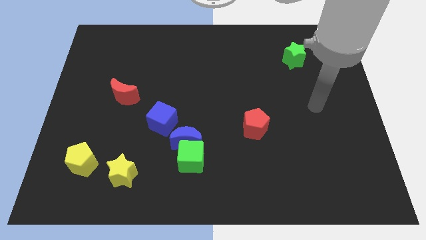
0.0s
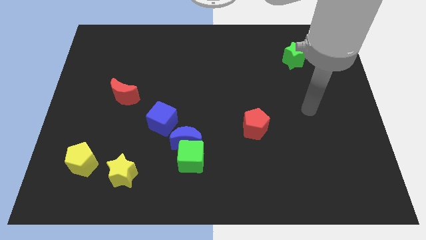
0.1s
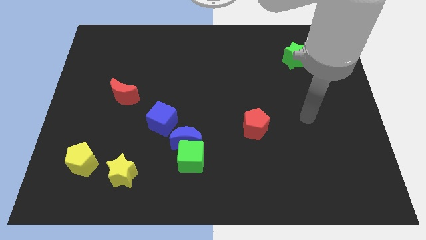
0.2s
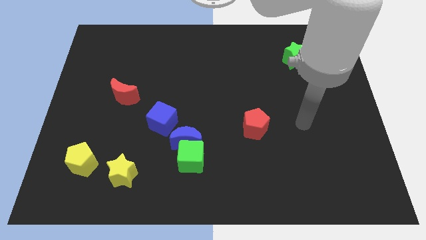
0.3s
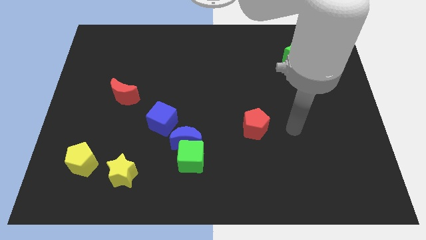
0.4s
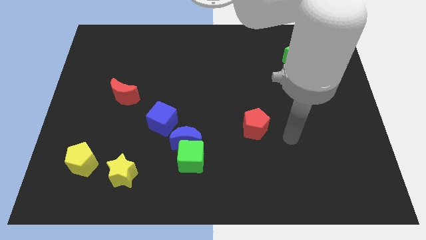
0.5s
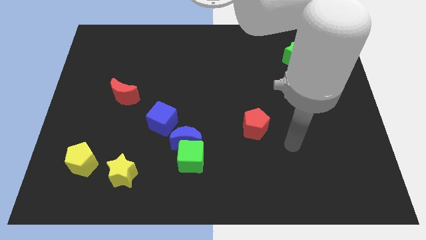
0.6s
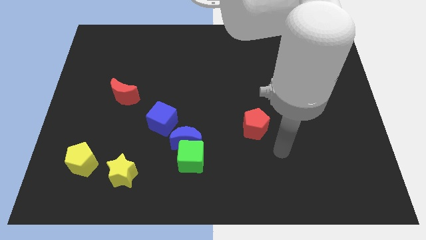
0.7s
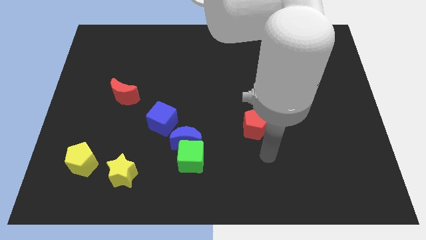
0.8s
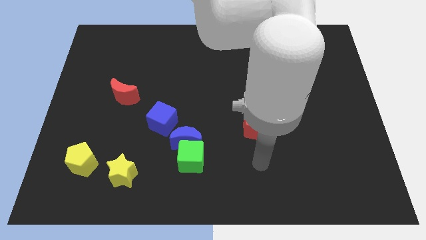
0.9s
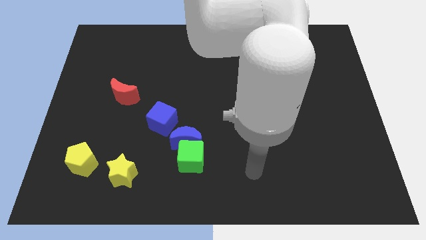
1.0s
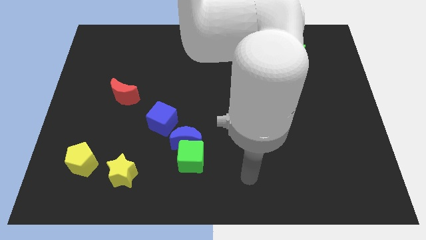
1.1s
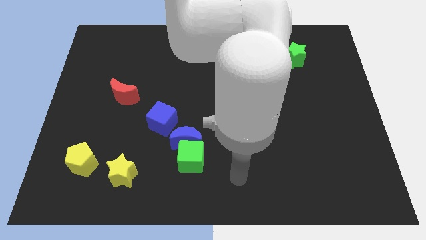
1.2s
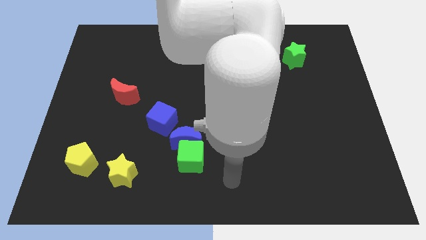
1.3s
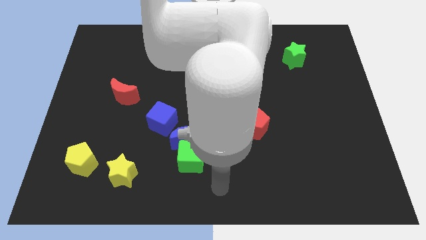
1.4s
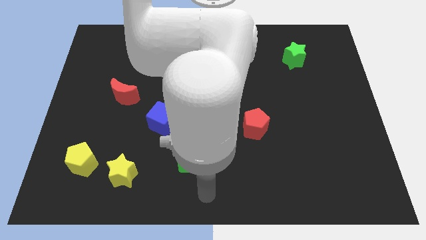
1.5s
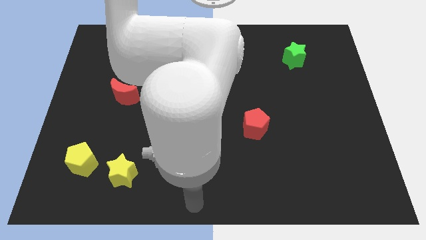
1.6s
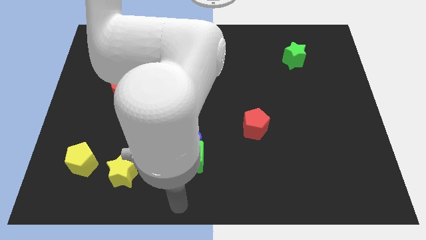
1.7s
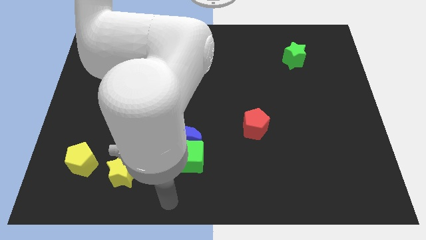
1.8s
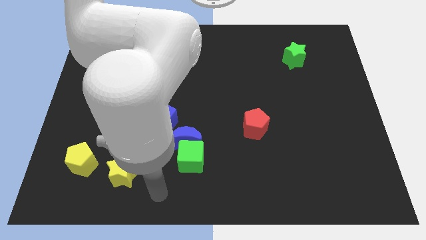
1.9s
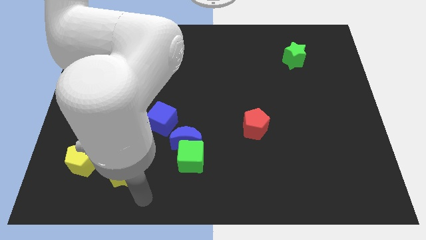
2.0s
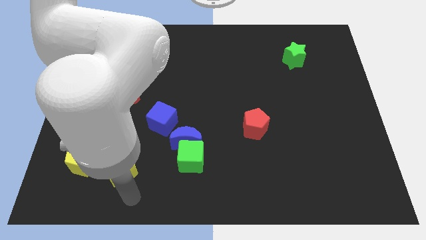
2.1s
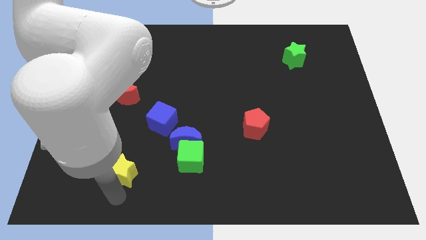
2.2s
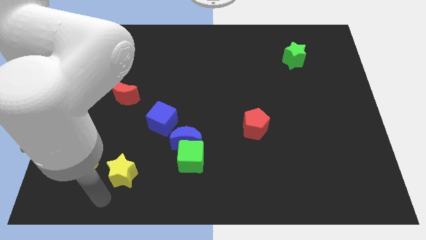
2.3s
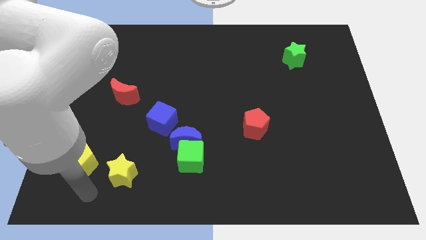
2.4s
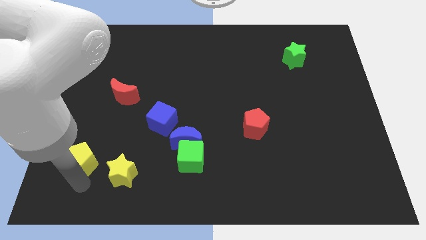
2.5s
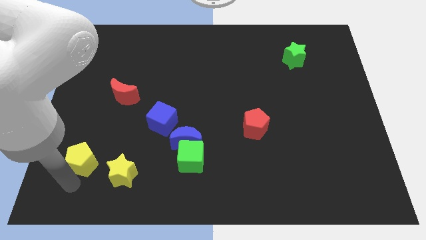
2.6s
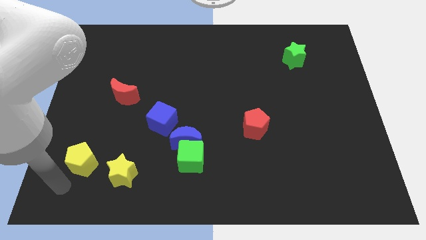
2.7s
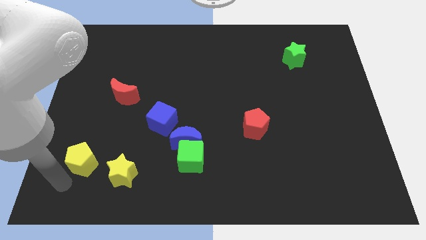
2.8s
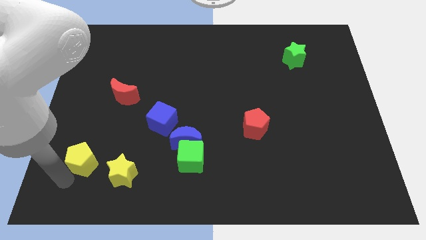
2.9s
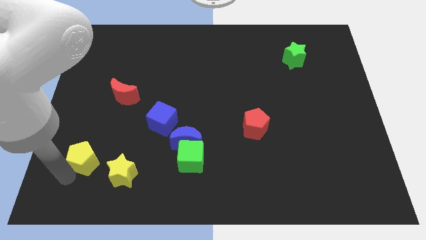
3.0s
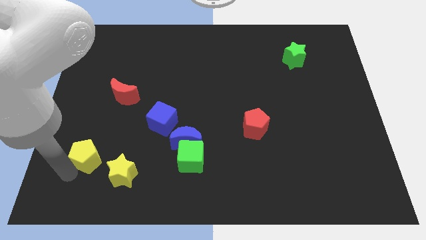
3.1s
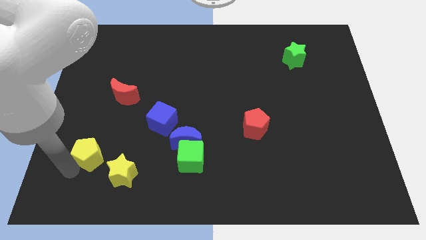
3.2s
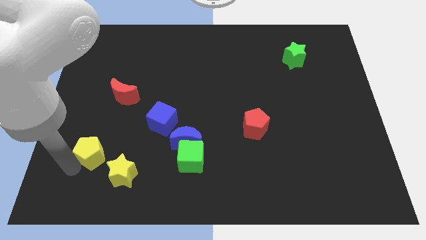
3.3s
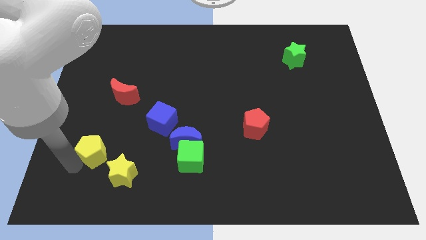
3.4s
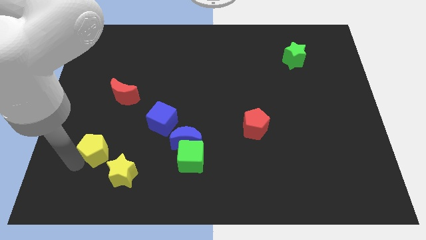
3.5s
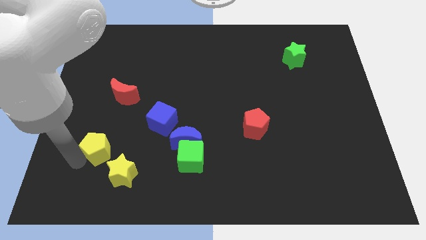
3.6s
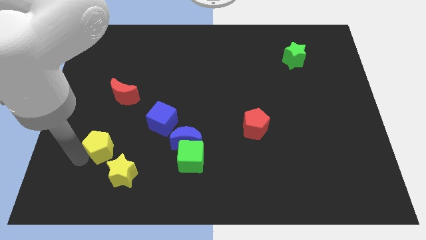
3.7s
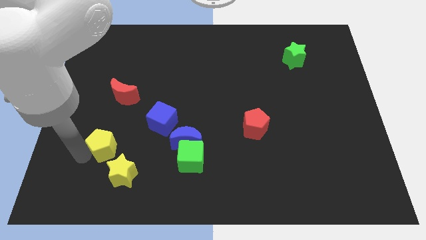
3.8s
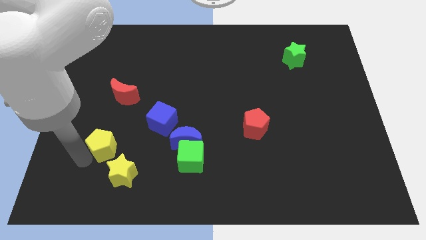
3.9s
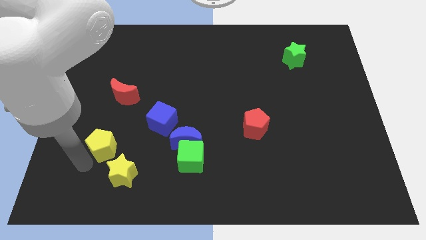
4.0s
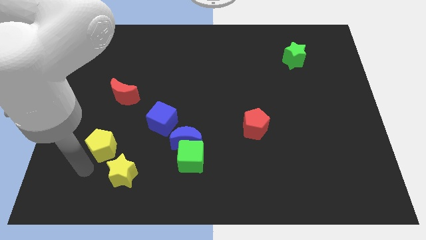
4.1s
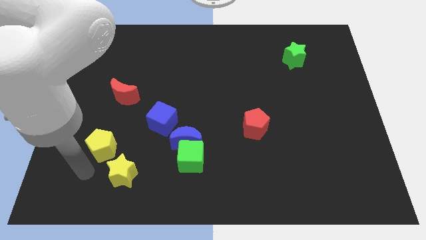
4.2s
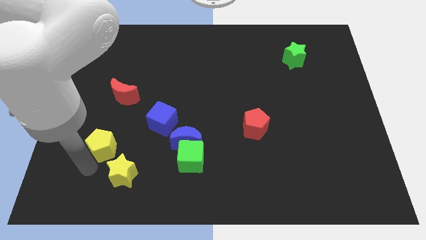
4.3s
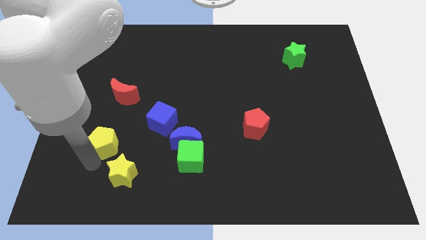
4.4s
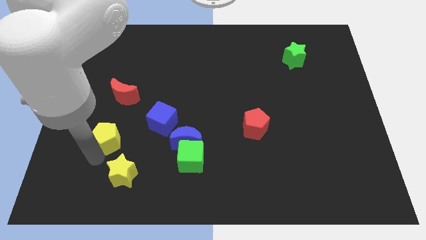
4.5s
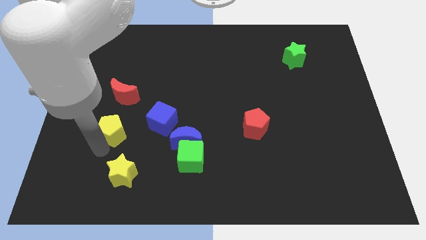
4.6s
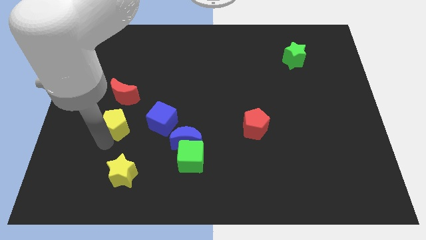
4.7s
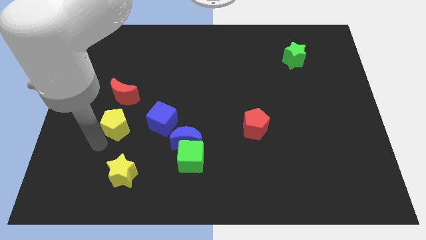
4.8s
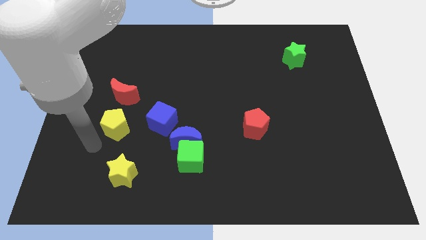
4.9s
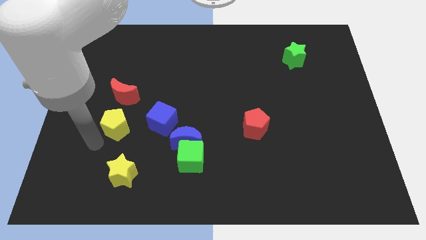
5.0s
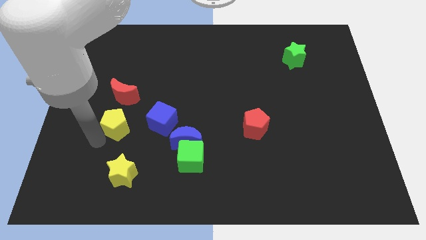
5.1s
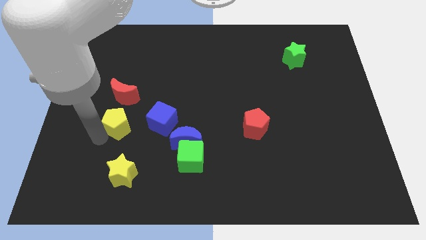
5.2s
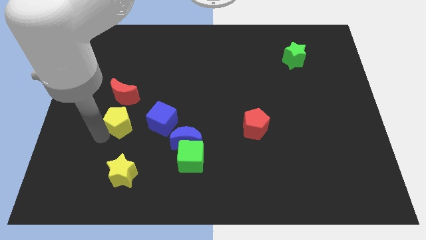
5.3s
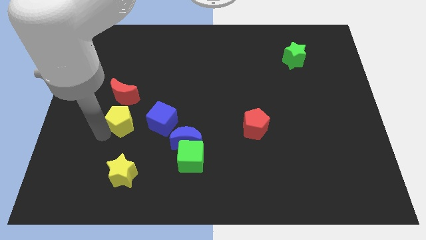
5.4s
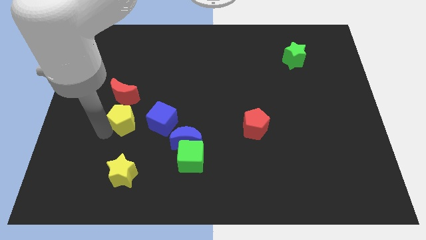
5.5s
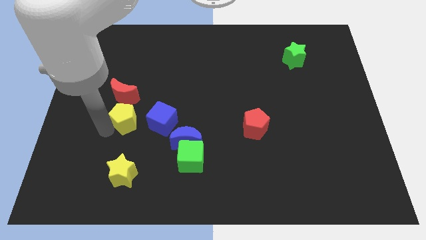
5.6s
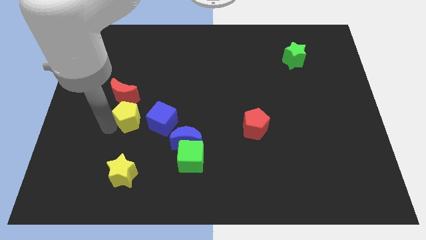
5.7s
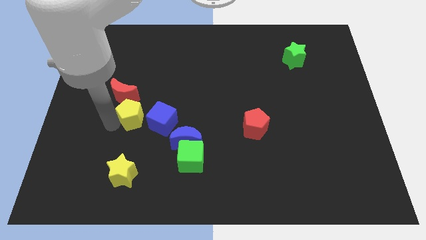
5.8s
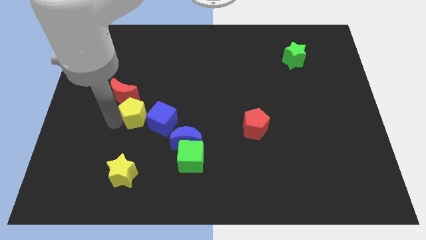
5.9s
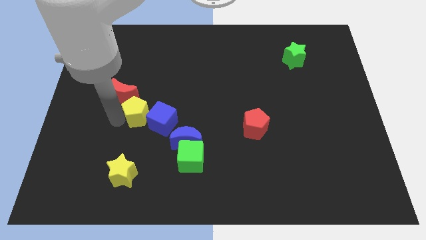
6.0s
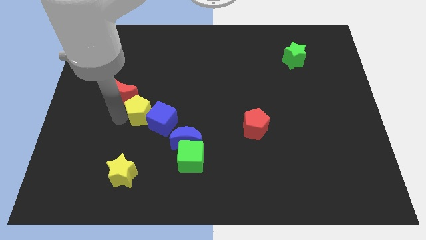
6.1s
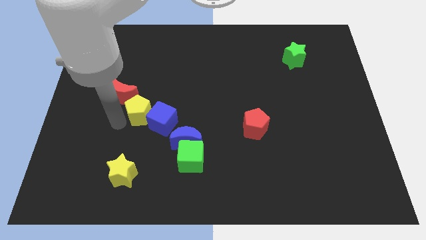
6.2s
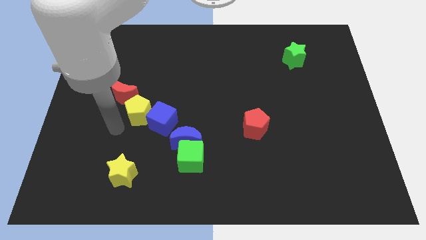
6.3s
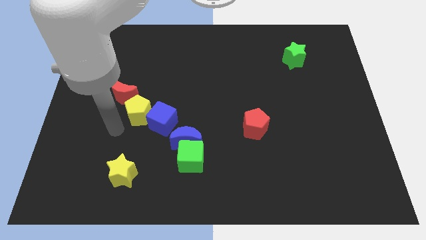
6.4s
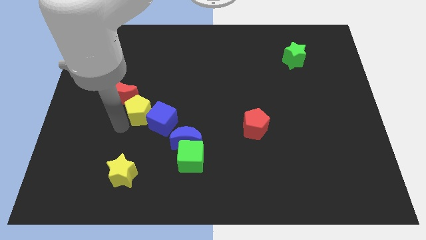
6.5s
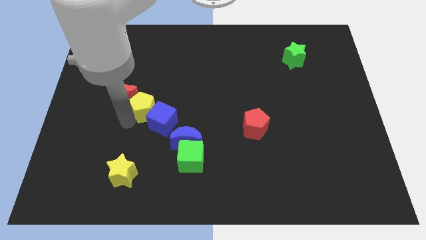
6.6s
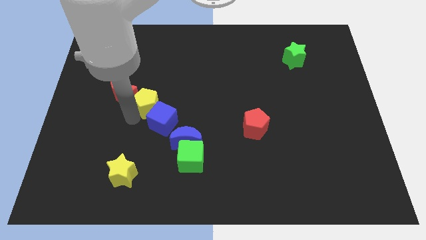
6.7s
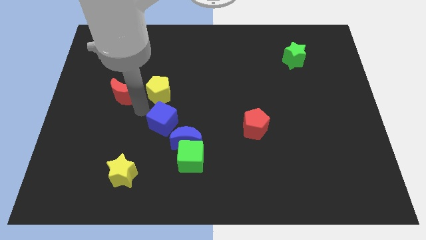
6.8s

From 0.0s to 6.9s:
move the yellow pentagon diagonally upwards and to the right
